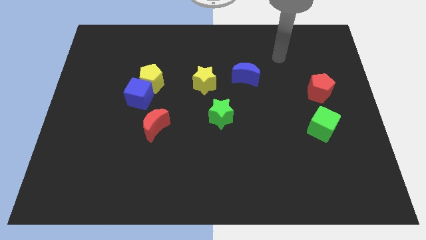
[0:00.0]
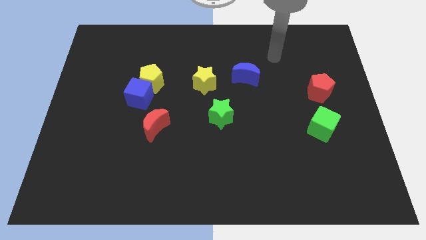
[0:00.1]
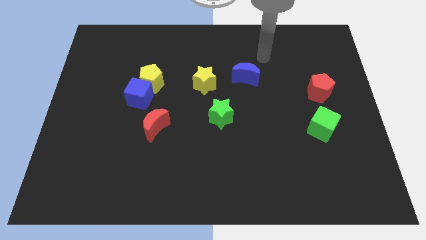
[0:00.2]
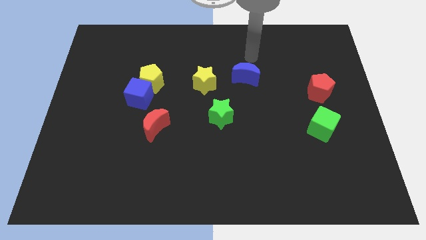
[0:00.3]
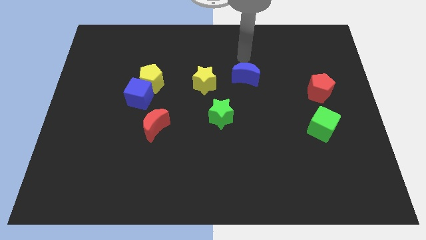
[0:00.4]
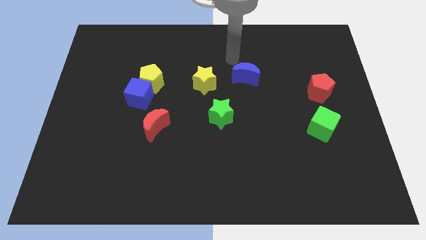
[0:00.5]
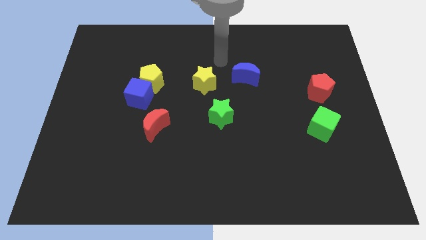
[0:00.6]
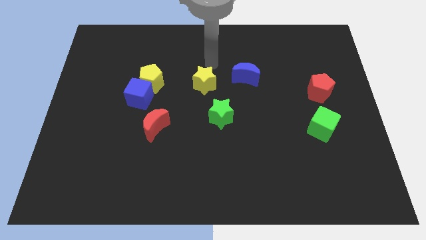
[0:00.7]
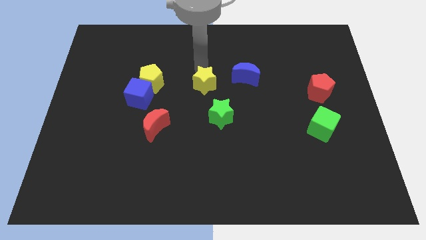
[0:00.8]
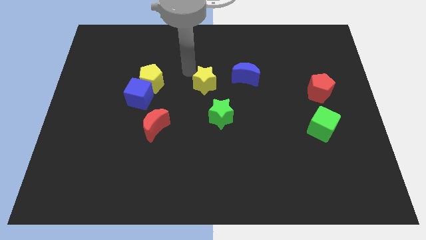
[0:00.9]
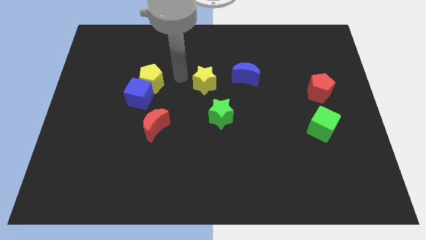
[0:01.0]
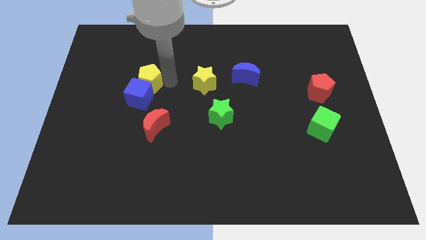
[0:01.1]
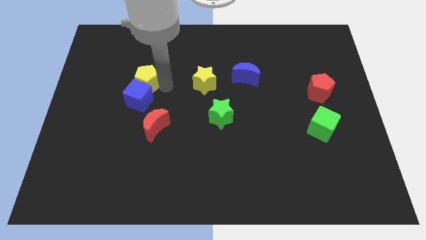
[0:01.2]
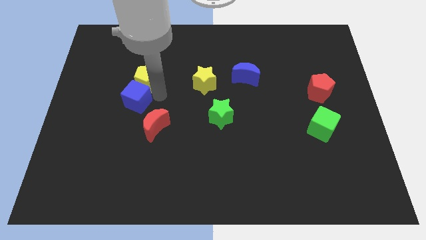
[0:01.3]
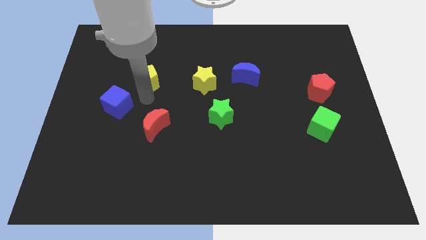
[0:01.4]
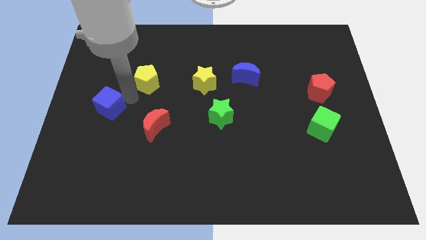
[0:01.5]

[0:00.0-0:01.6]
pull the yellow pentagon apart from the blue cube

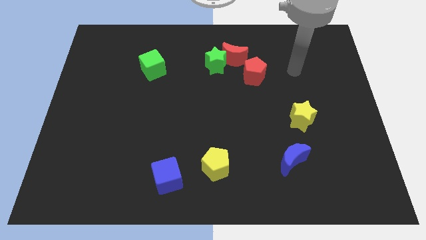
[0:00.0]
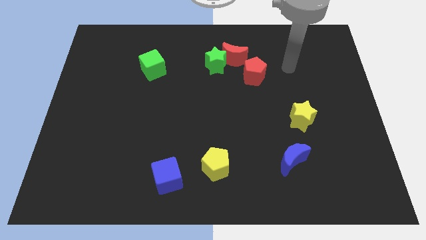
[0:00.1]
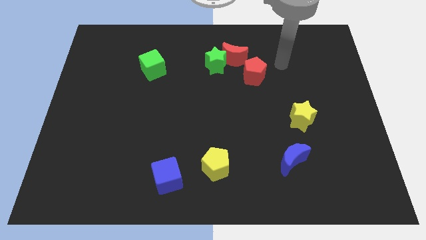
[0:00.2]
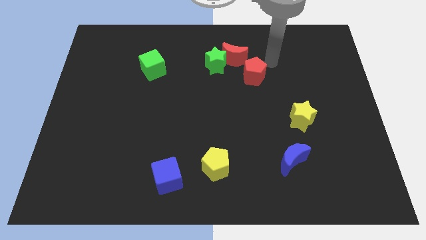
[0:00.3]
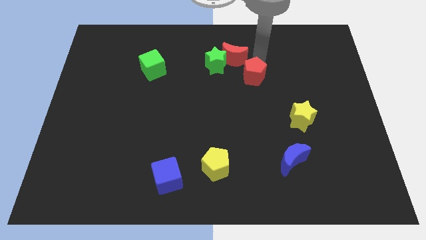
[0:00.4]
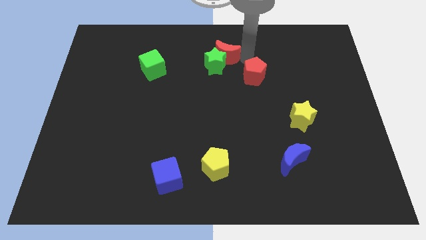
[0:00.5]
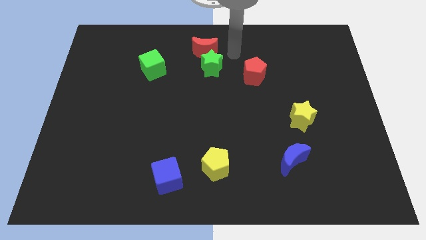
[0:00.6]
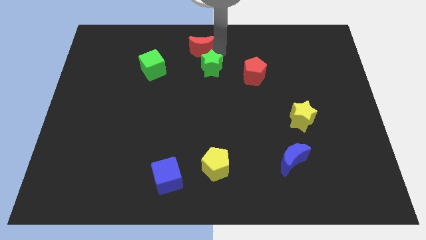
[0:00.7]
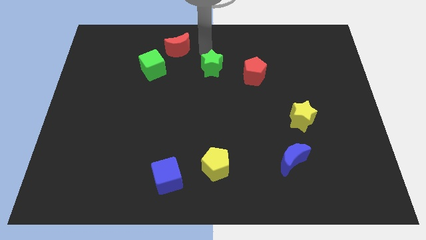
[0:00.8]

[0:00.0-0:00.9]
move the green star away from the red moon

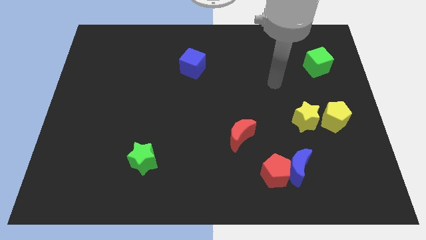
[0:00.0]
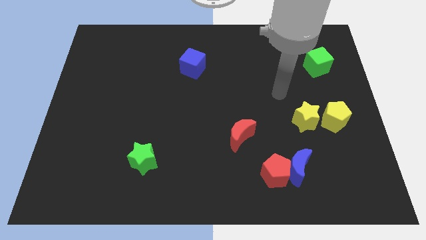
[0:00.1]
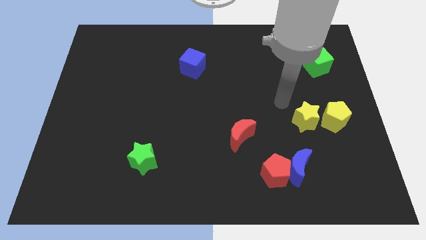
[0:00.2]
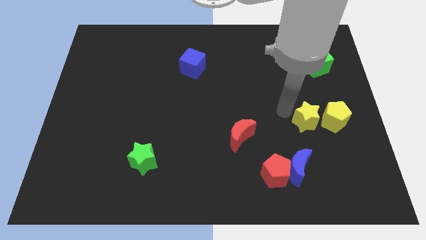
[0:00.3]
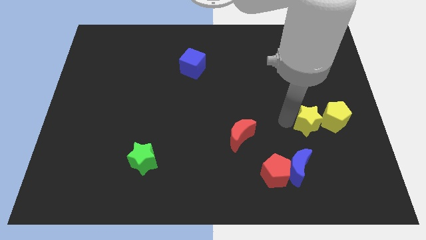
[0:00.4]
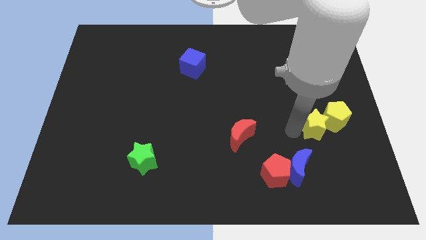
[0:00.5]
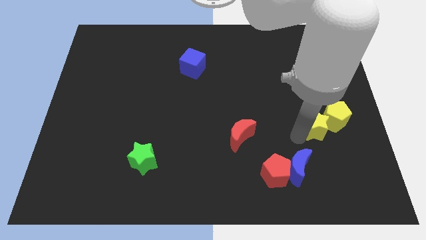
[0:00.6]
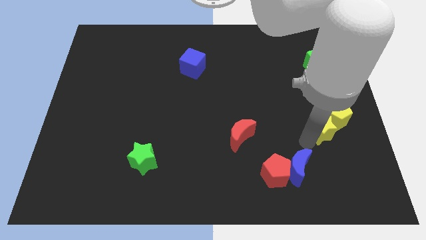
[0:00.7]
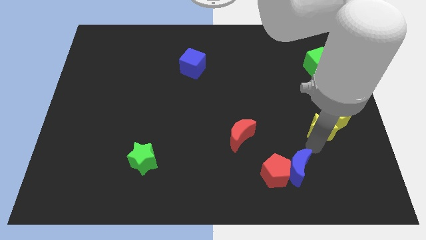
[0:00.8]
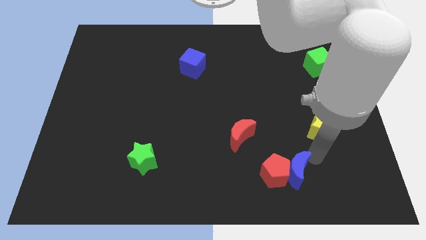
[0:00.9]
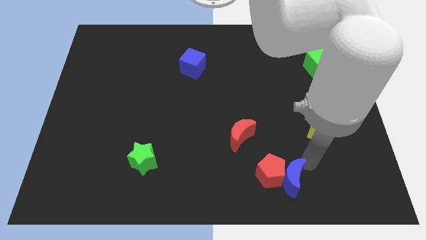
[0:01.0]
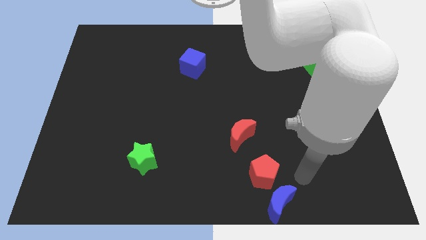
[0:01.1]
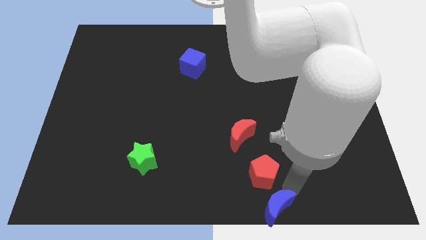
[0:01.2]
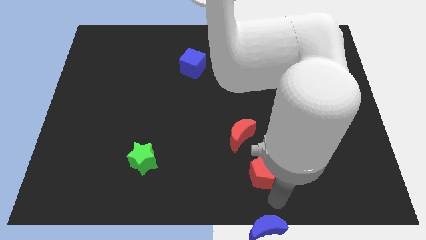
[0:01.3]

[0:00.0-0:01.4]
separate the red pentagon from the blue moon

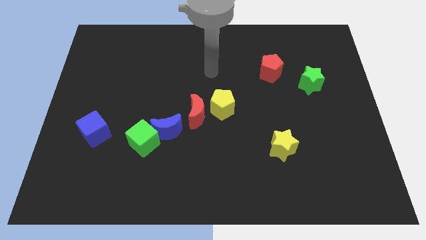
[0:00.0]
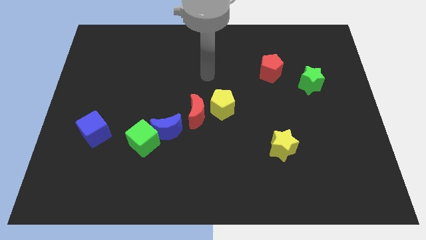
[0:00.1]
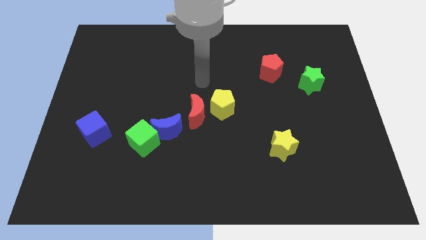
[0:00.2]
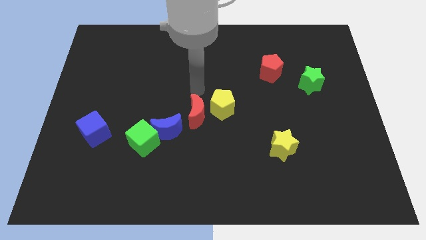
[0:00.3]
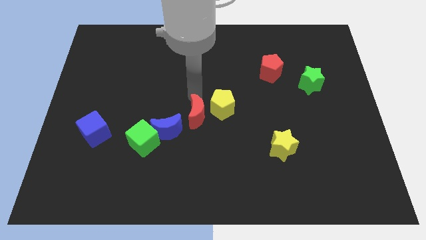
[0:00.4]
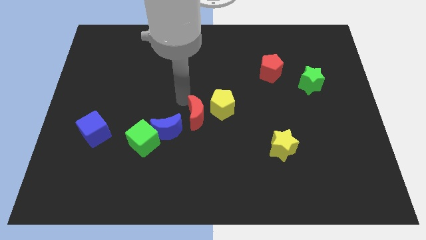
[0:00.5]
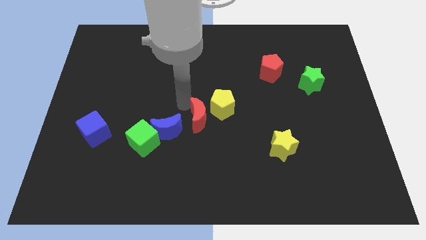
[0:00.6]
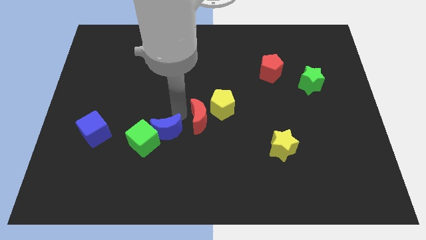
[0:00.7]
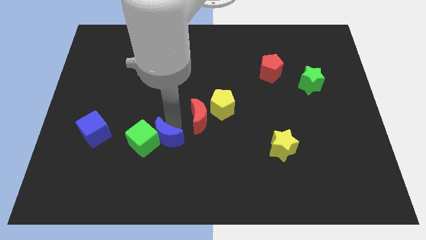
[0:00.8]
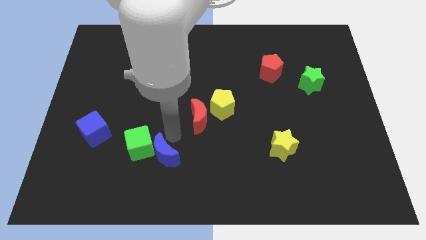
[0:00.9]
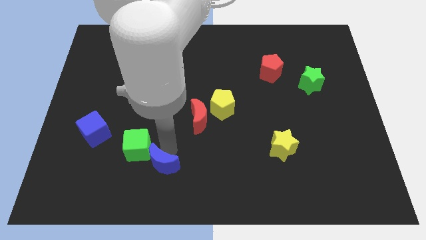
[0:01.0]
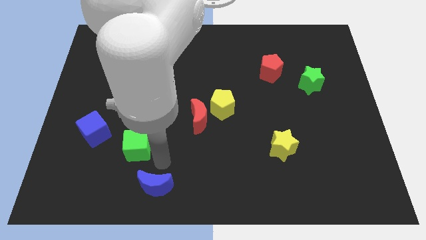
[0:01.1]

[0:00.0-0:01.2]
move the green cube away from the blue moon

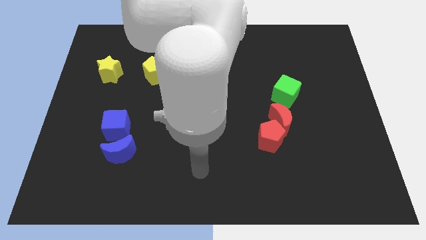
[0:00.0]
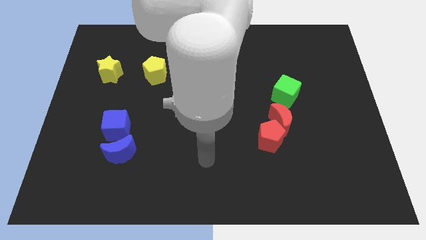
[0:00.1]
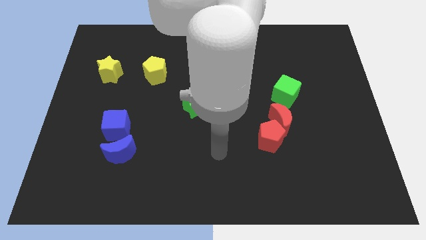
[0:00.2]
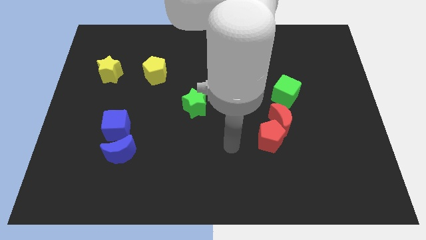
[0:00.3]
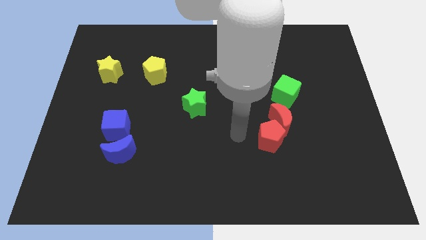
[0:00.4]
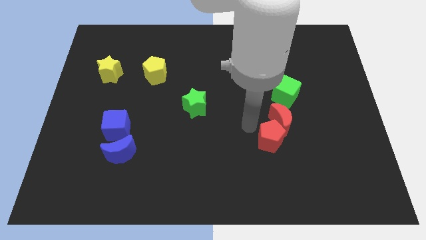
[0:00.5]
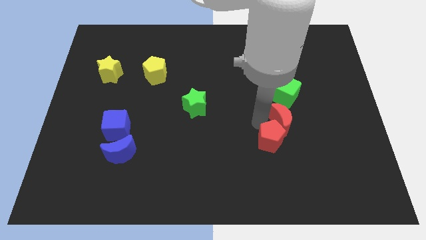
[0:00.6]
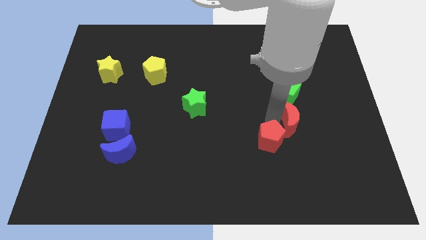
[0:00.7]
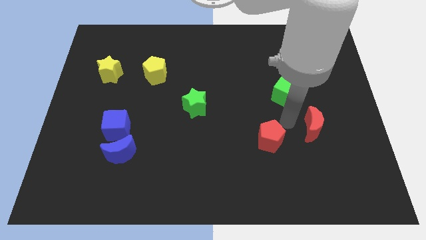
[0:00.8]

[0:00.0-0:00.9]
pull the red pentagon apart from the red moon

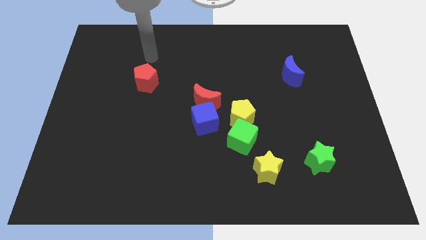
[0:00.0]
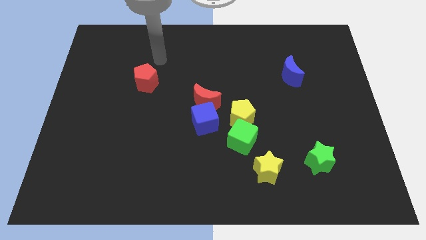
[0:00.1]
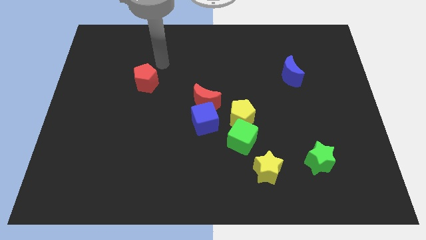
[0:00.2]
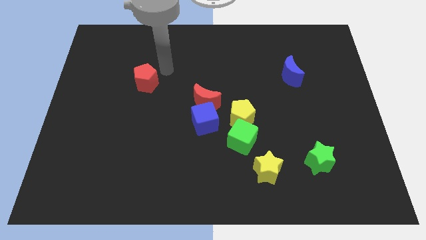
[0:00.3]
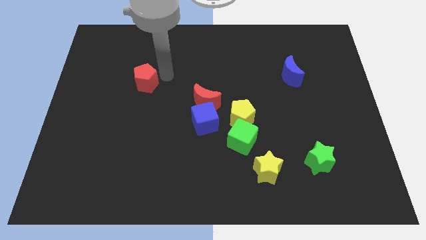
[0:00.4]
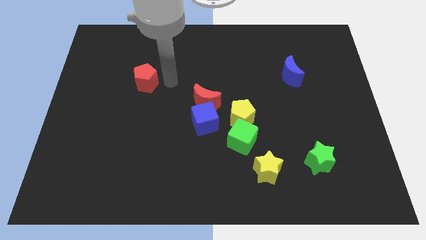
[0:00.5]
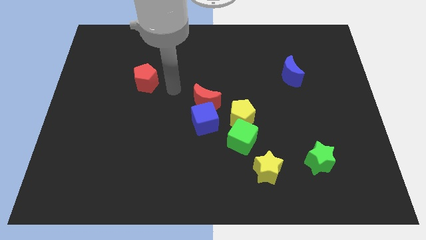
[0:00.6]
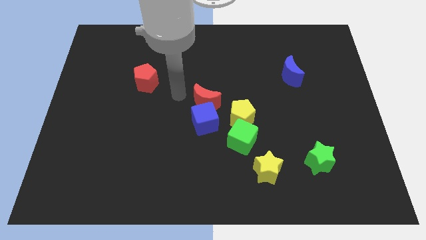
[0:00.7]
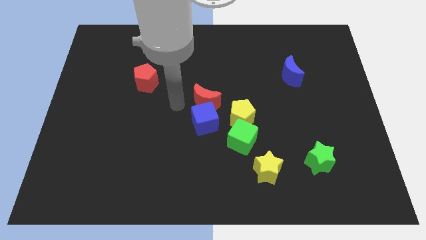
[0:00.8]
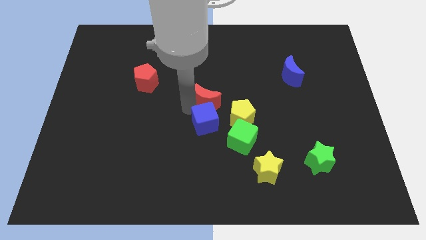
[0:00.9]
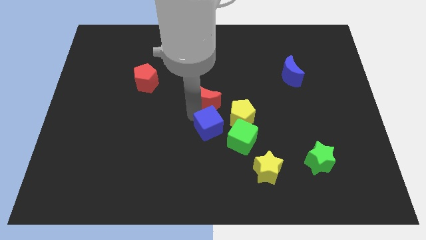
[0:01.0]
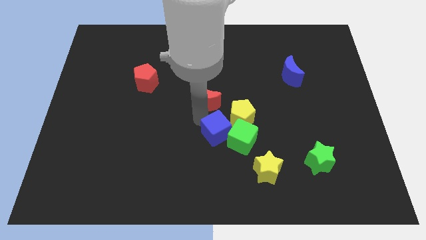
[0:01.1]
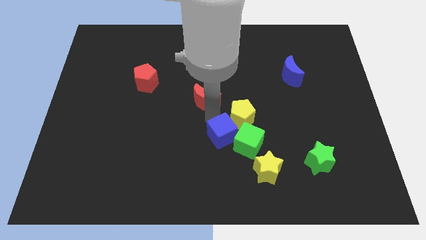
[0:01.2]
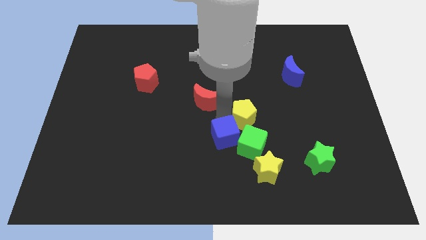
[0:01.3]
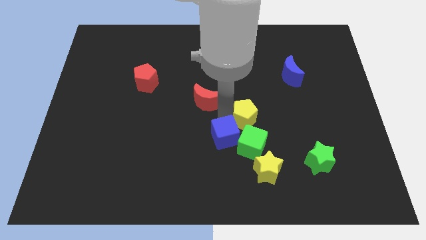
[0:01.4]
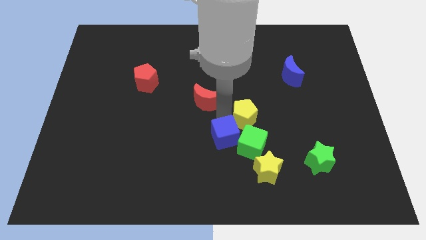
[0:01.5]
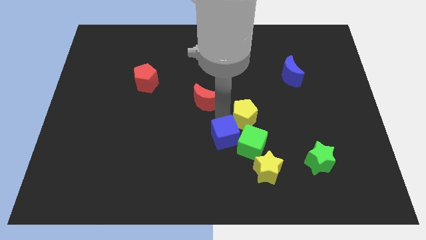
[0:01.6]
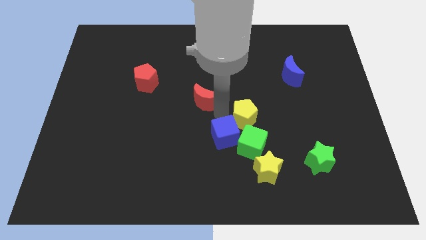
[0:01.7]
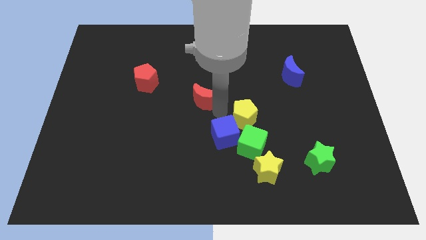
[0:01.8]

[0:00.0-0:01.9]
pull the red moon apart from the blue cube and yellow pentagon

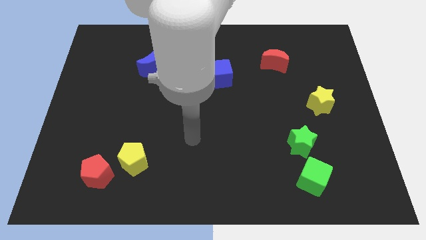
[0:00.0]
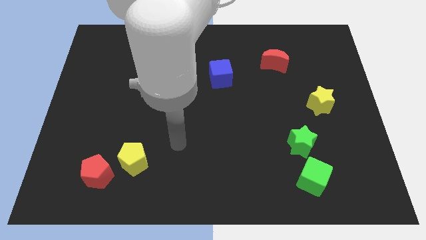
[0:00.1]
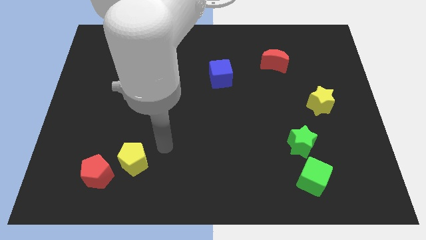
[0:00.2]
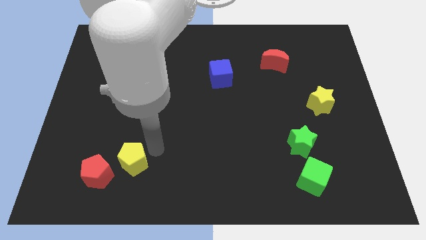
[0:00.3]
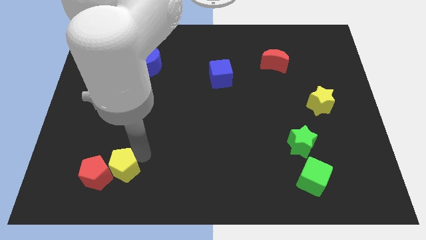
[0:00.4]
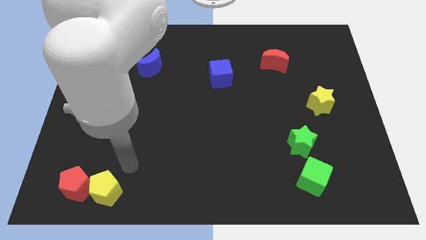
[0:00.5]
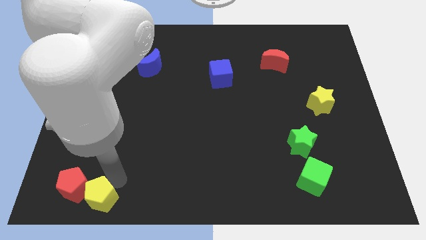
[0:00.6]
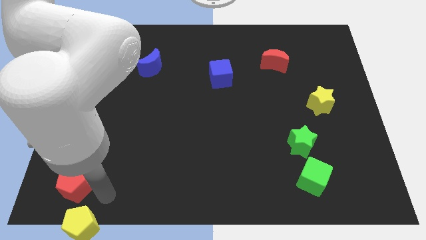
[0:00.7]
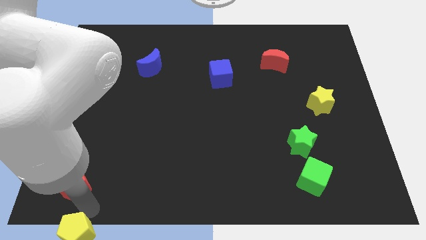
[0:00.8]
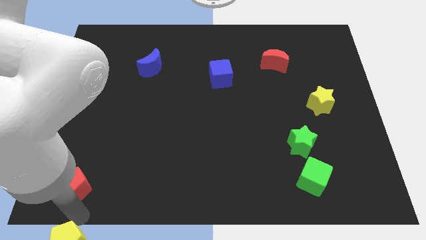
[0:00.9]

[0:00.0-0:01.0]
separate the red pentagon from the yellow pentagon

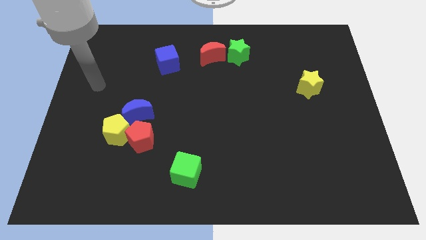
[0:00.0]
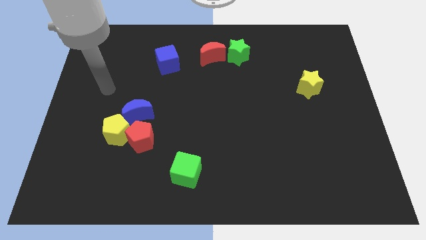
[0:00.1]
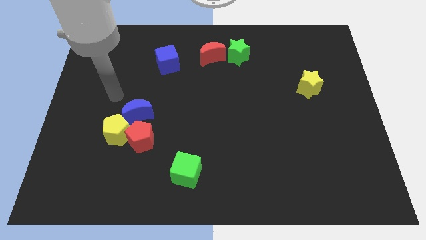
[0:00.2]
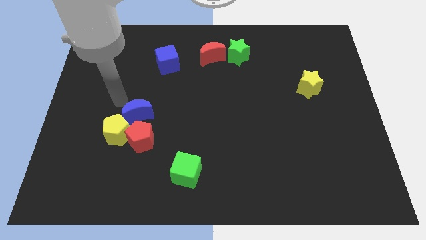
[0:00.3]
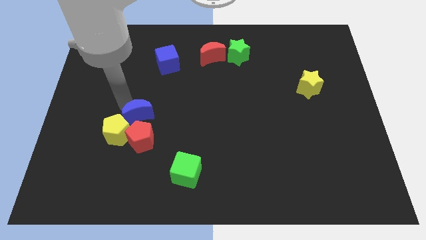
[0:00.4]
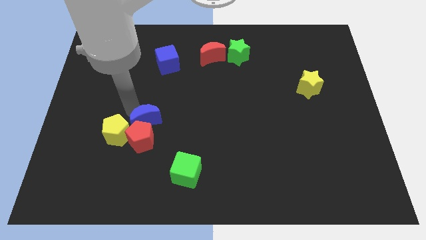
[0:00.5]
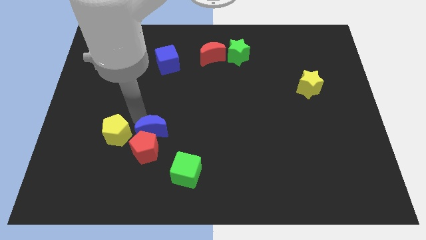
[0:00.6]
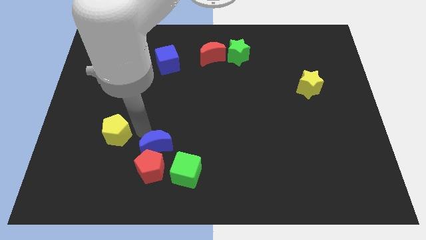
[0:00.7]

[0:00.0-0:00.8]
move the yellow pentagon away from the red pentagon and blue moon
